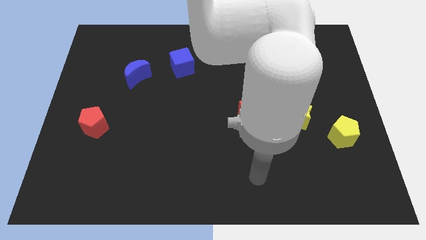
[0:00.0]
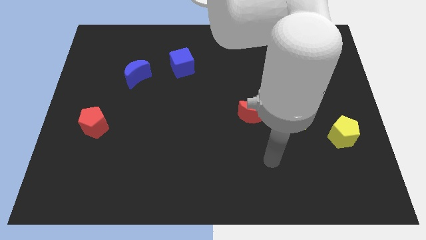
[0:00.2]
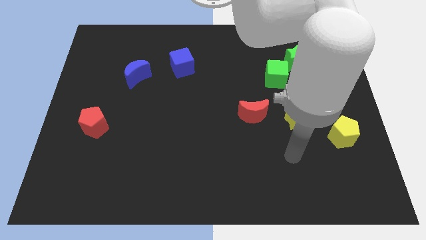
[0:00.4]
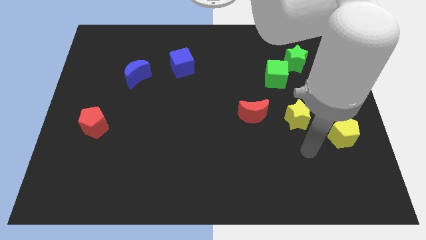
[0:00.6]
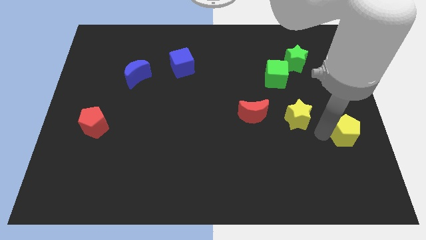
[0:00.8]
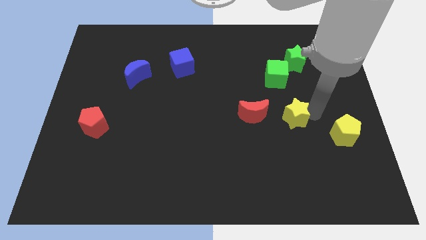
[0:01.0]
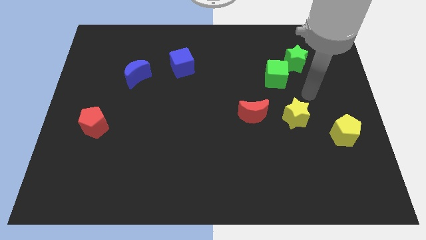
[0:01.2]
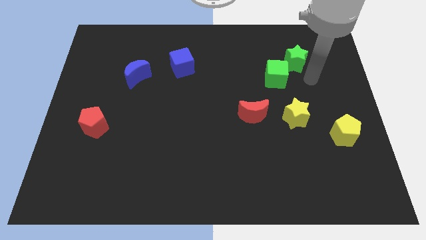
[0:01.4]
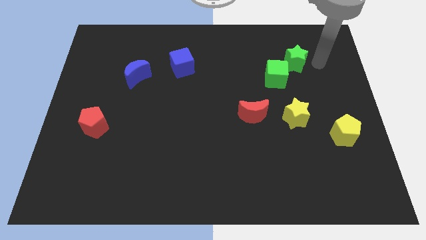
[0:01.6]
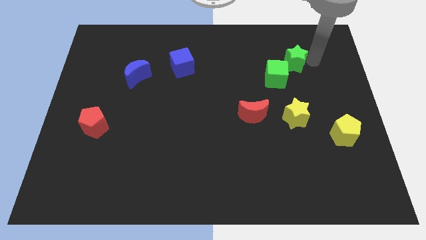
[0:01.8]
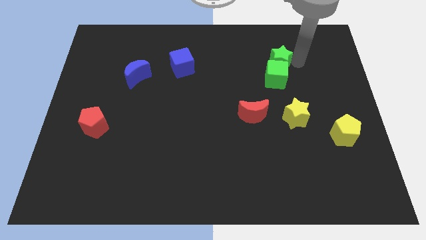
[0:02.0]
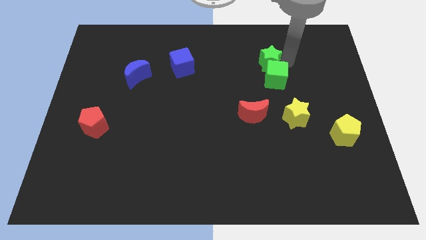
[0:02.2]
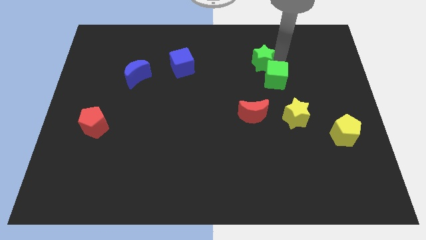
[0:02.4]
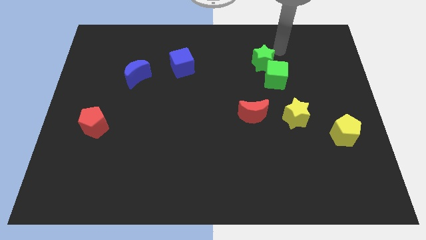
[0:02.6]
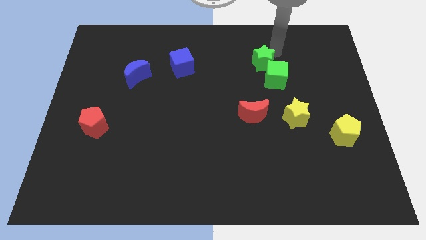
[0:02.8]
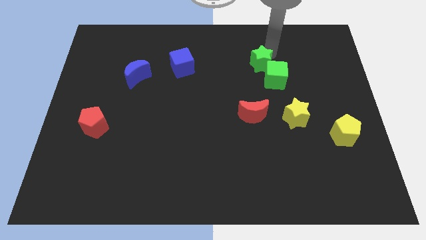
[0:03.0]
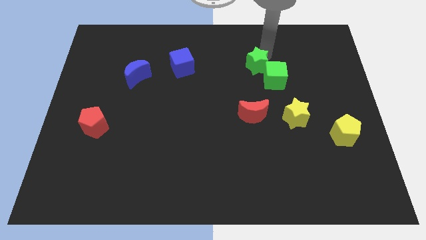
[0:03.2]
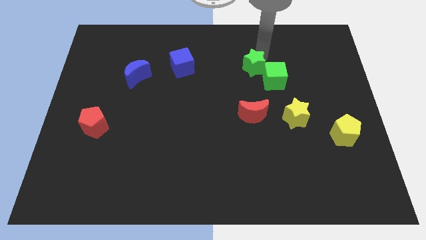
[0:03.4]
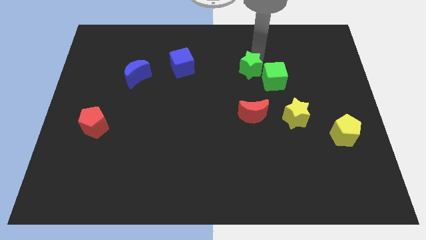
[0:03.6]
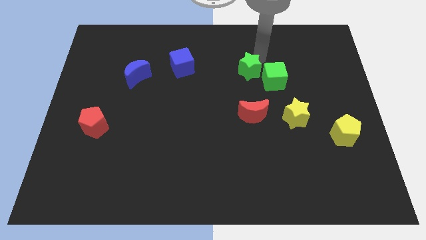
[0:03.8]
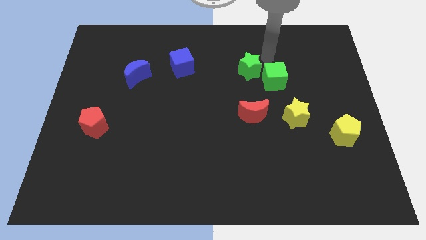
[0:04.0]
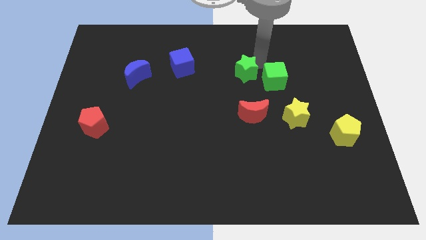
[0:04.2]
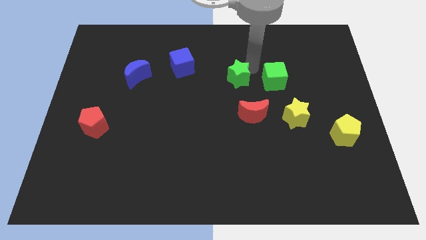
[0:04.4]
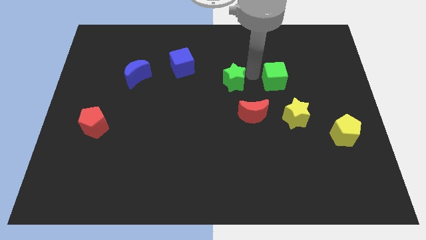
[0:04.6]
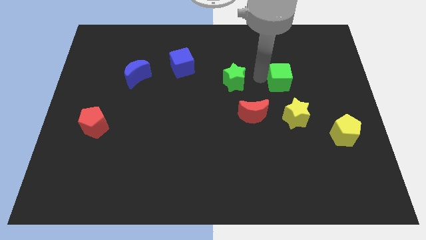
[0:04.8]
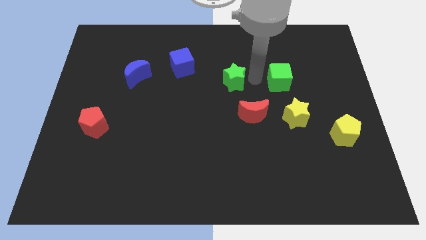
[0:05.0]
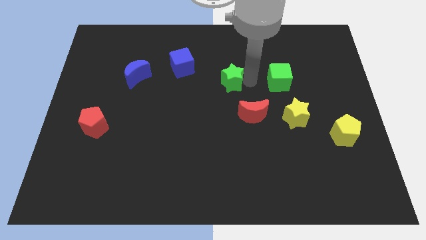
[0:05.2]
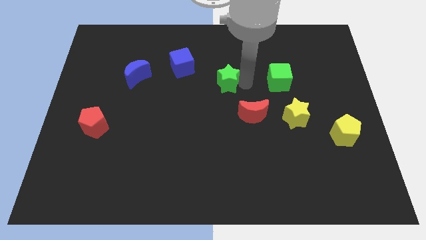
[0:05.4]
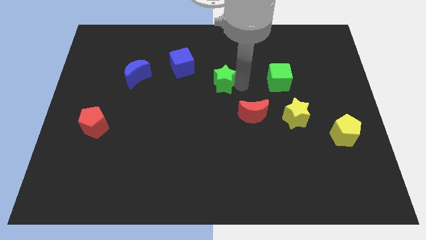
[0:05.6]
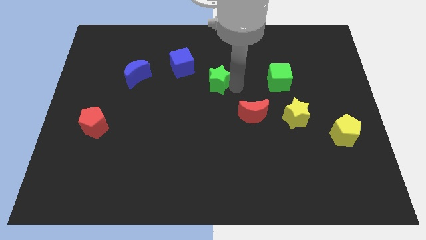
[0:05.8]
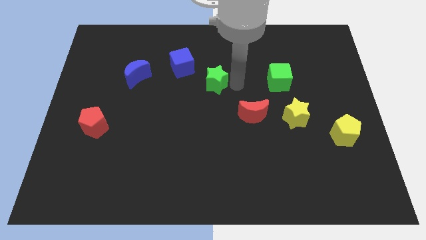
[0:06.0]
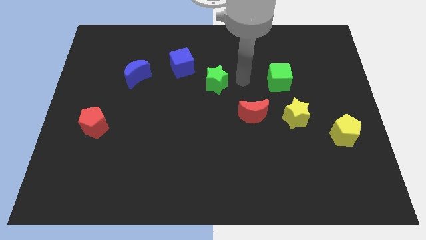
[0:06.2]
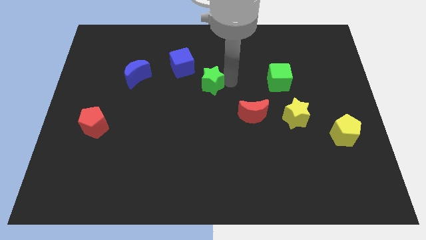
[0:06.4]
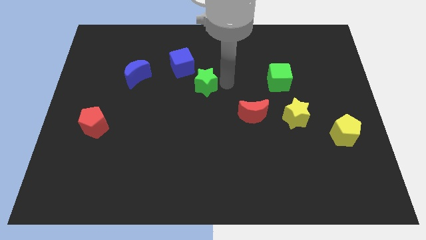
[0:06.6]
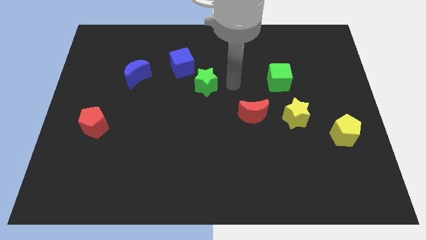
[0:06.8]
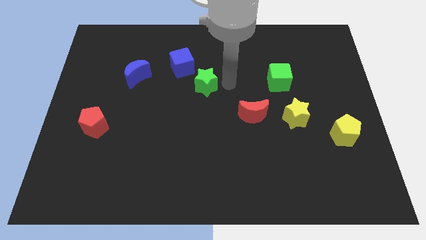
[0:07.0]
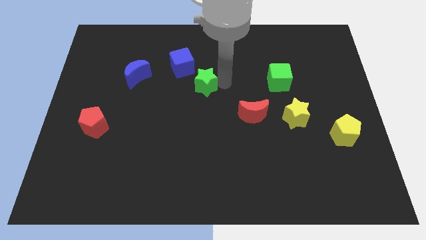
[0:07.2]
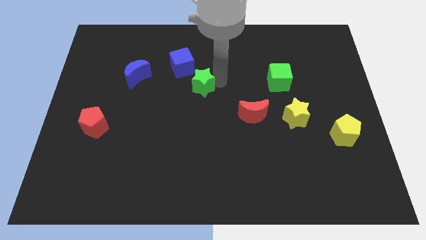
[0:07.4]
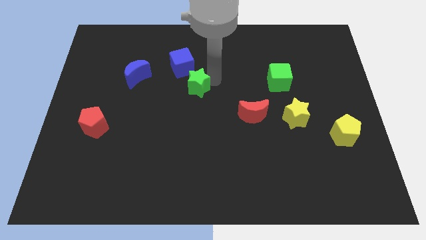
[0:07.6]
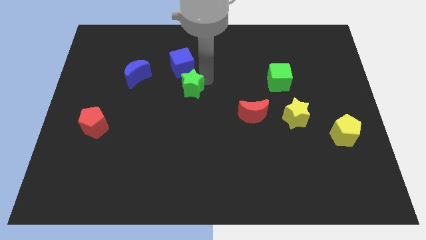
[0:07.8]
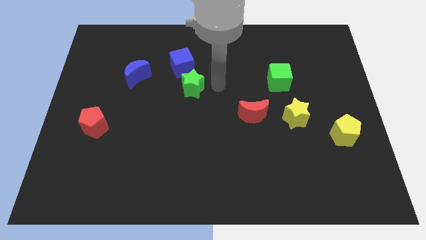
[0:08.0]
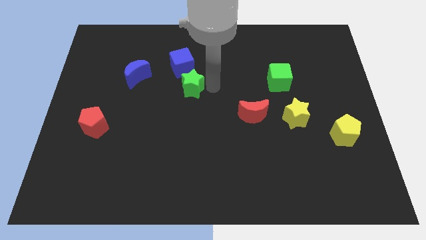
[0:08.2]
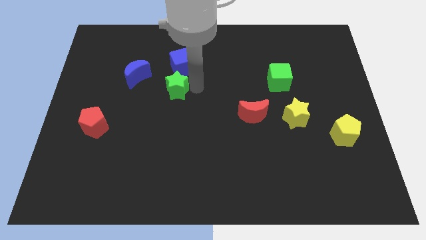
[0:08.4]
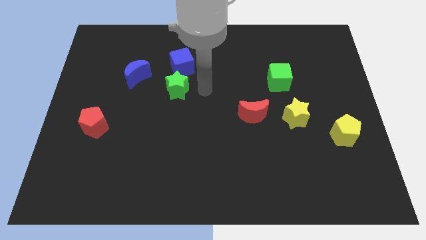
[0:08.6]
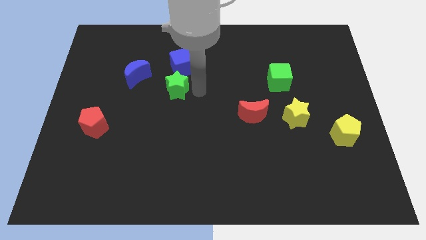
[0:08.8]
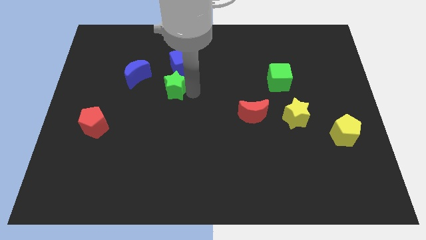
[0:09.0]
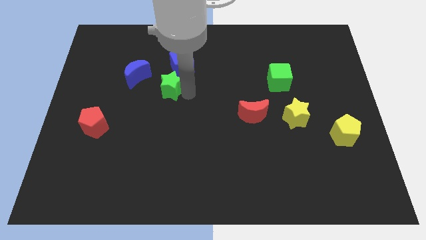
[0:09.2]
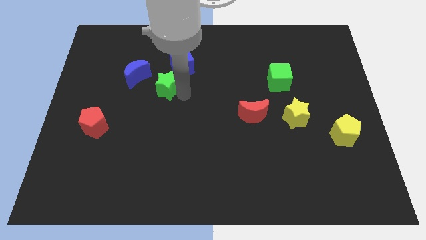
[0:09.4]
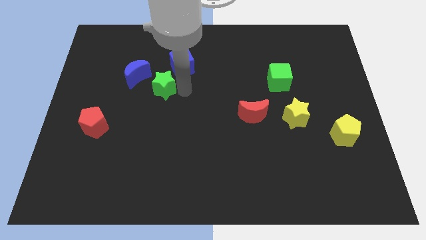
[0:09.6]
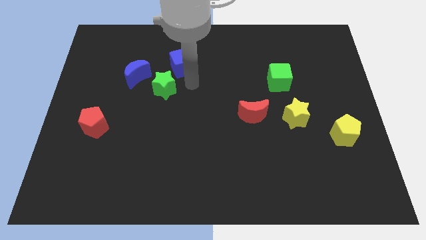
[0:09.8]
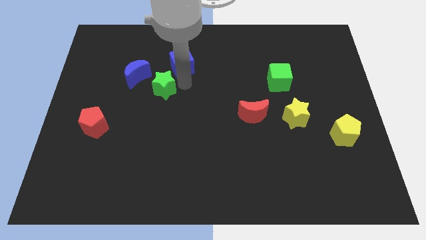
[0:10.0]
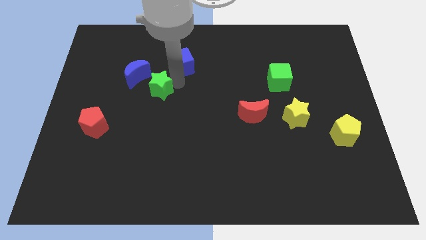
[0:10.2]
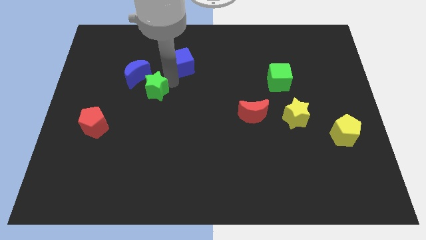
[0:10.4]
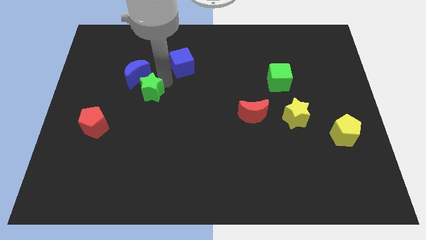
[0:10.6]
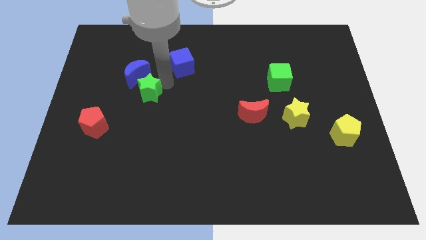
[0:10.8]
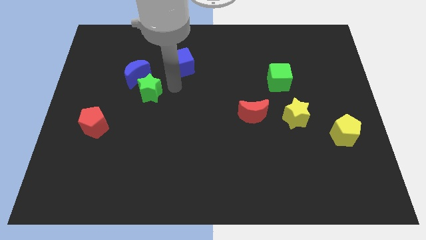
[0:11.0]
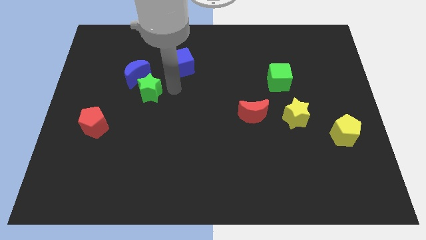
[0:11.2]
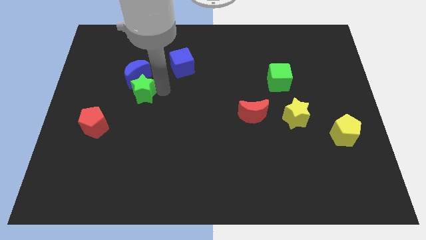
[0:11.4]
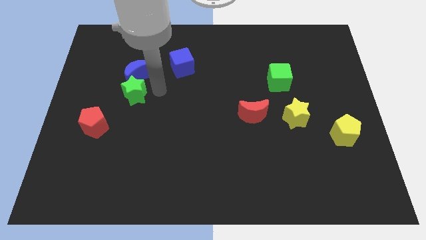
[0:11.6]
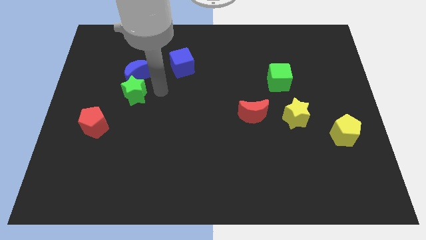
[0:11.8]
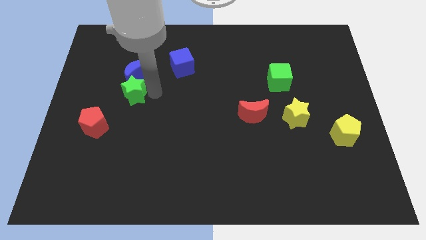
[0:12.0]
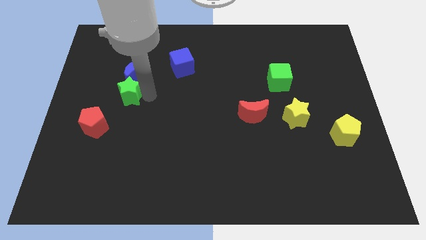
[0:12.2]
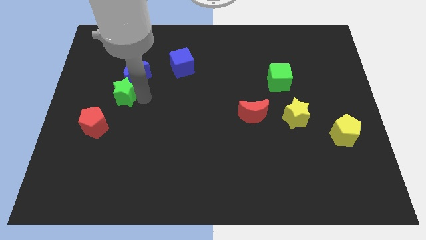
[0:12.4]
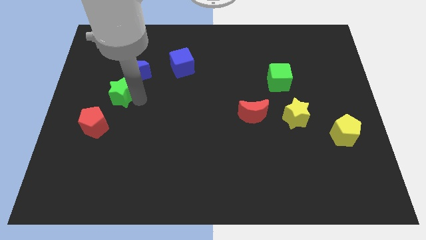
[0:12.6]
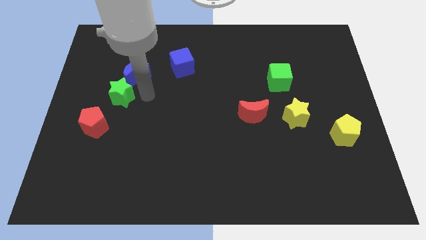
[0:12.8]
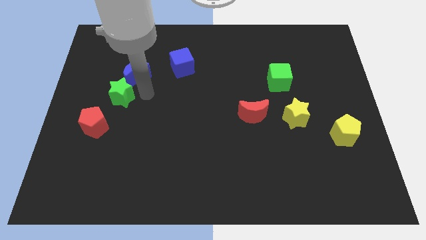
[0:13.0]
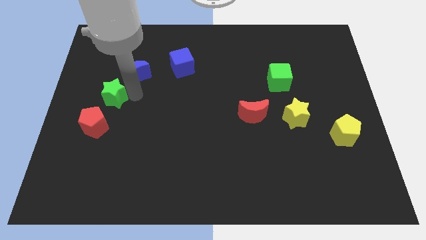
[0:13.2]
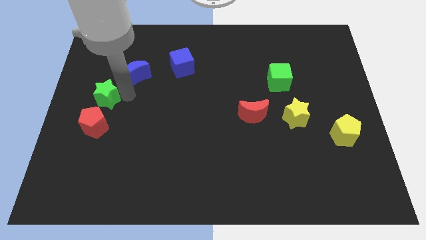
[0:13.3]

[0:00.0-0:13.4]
put the green star to the left side
